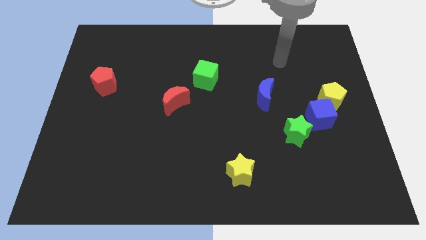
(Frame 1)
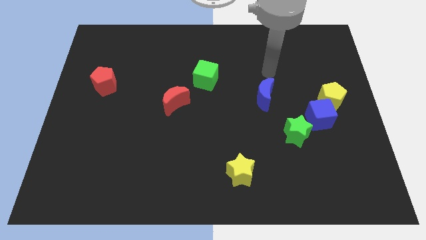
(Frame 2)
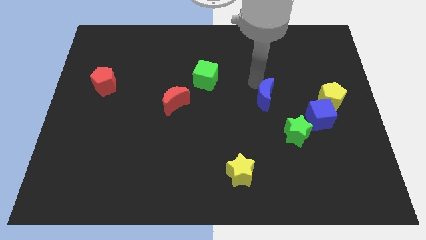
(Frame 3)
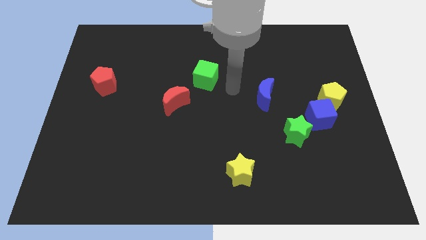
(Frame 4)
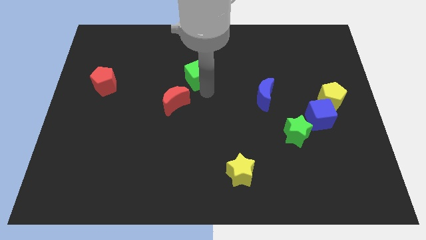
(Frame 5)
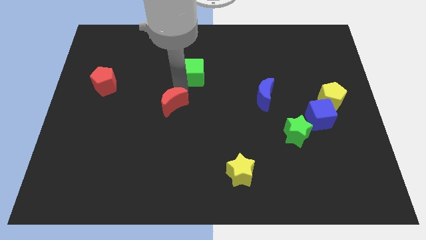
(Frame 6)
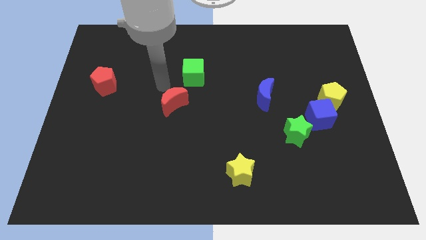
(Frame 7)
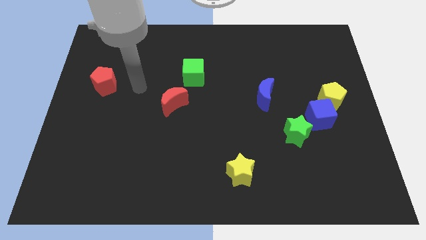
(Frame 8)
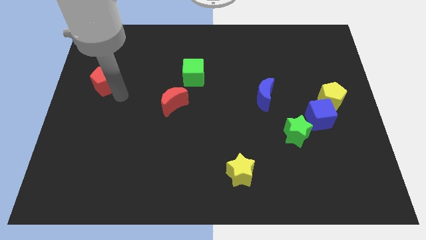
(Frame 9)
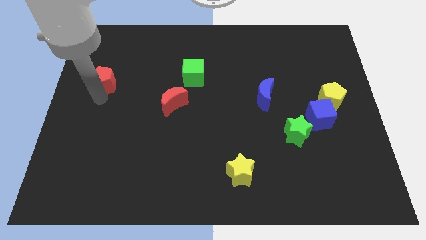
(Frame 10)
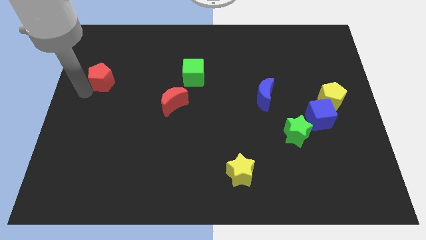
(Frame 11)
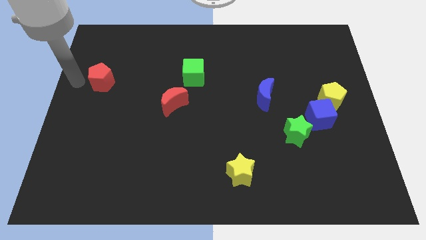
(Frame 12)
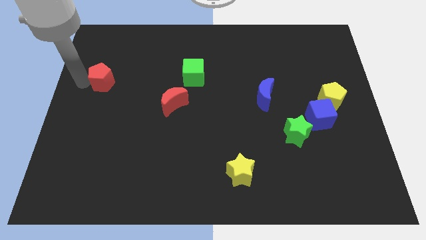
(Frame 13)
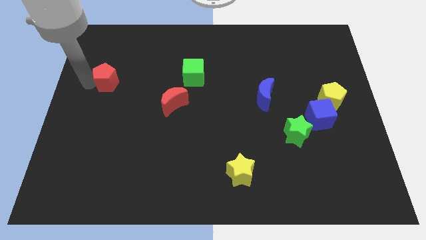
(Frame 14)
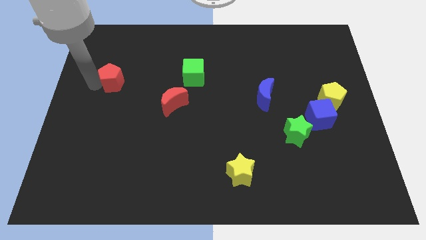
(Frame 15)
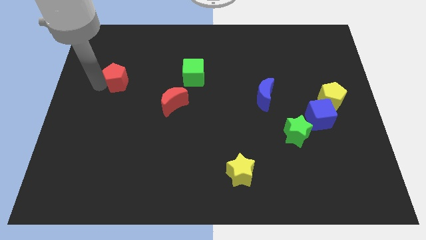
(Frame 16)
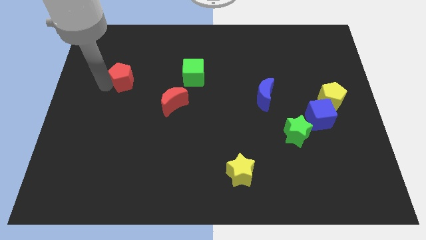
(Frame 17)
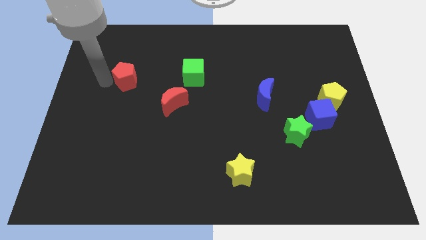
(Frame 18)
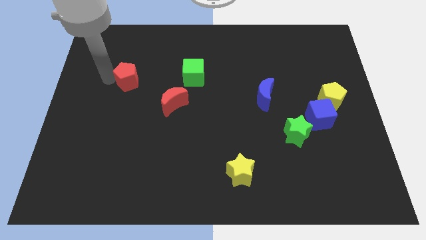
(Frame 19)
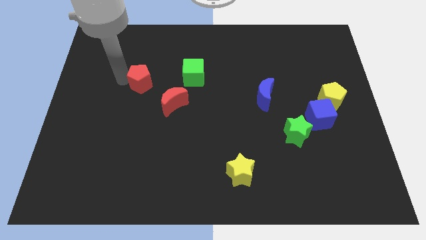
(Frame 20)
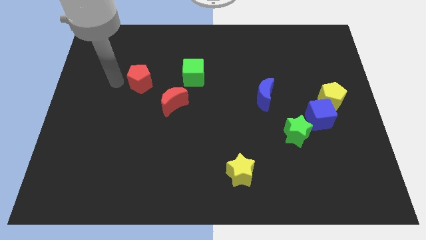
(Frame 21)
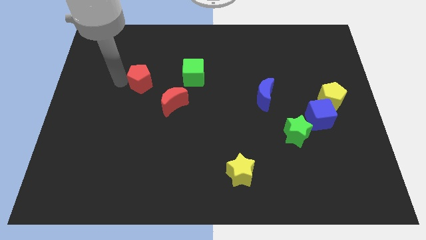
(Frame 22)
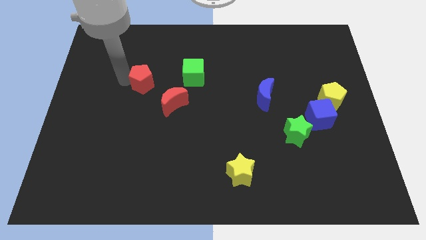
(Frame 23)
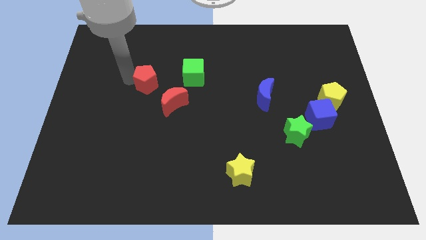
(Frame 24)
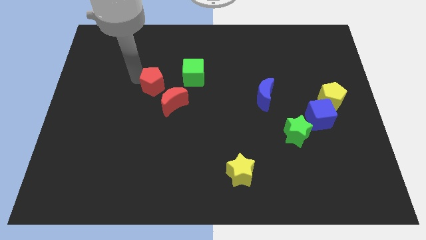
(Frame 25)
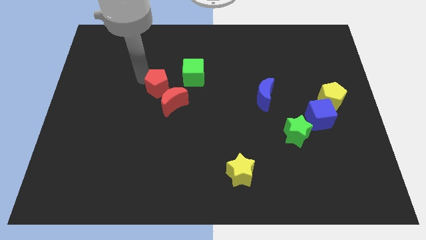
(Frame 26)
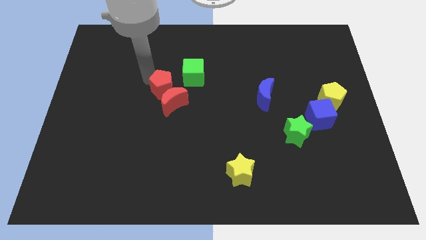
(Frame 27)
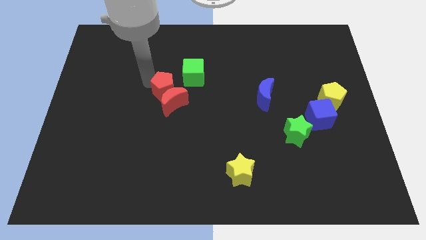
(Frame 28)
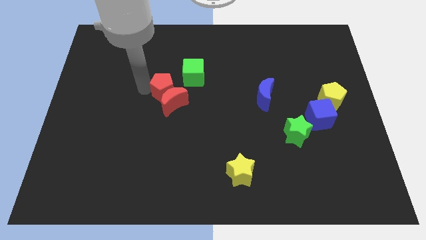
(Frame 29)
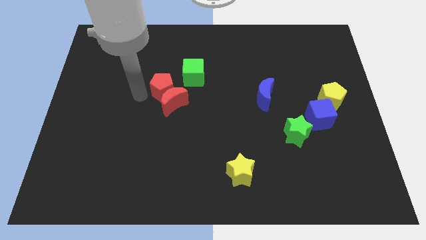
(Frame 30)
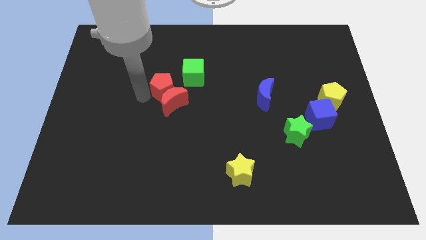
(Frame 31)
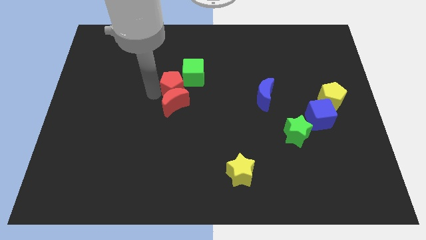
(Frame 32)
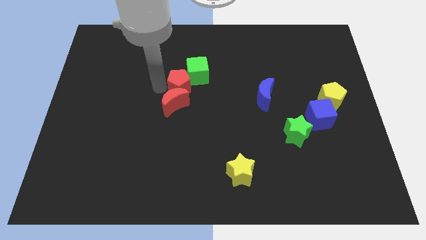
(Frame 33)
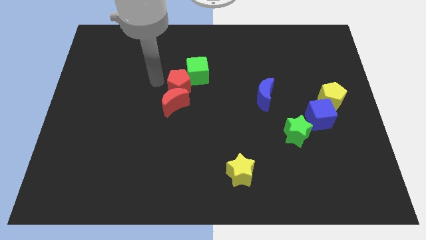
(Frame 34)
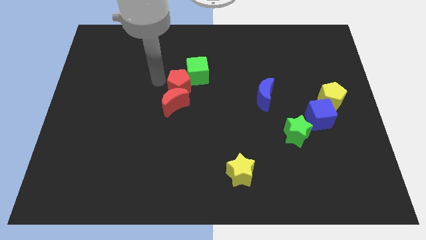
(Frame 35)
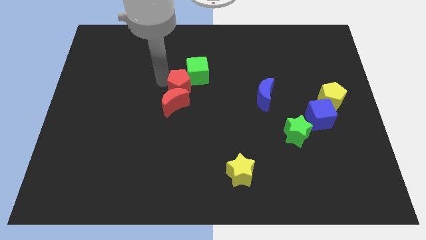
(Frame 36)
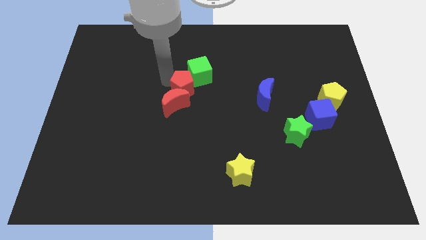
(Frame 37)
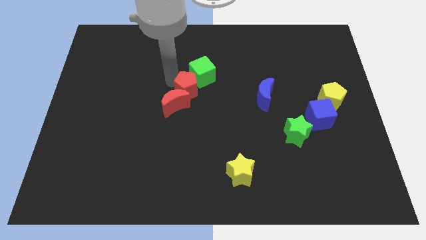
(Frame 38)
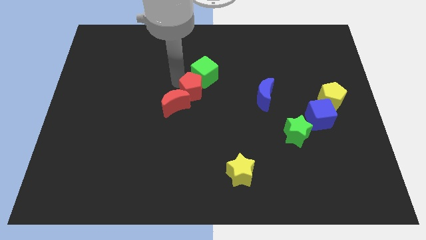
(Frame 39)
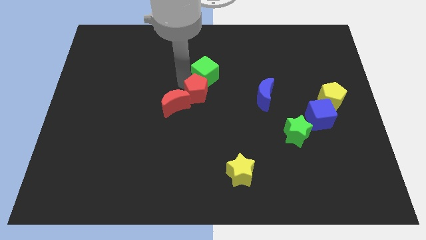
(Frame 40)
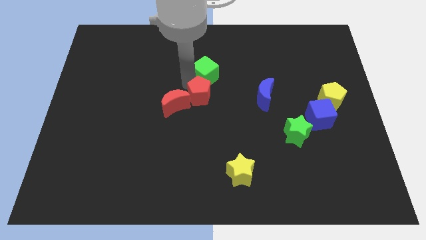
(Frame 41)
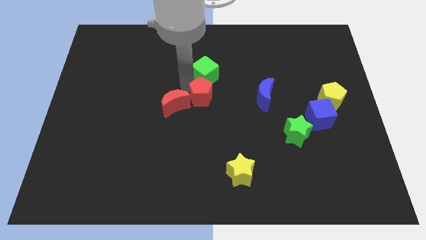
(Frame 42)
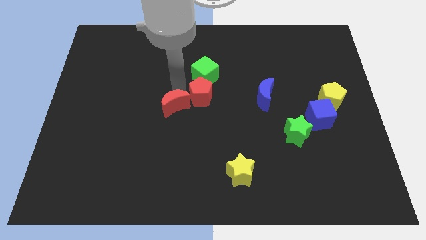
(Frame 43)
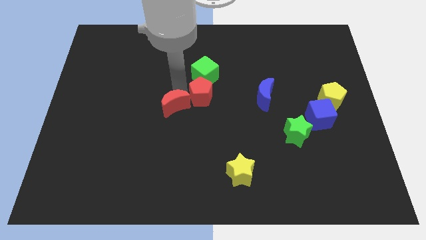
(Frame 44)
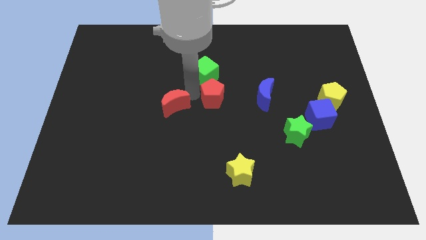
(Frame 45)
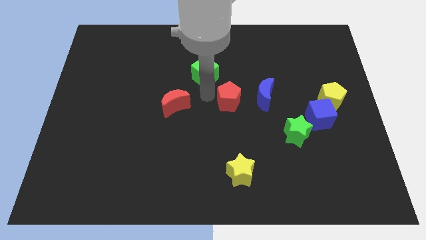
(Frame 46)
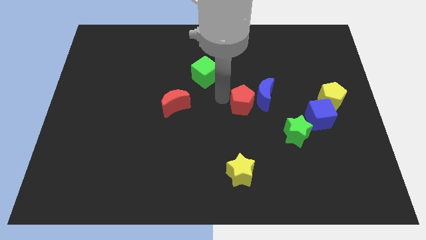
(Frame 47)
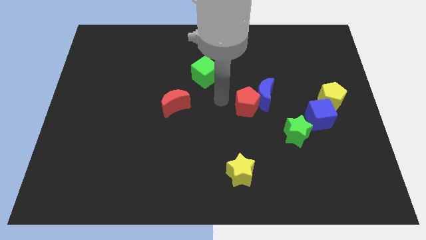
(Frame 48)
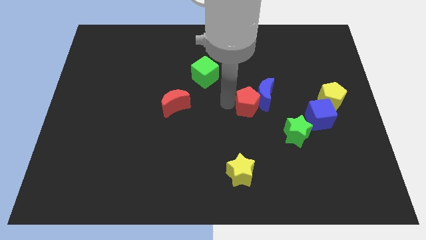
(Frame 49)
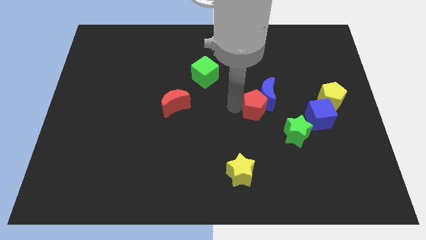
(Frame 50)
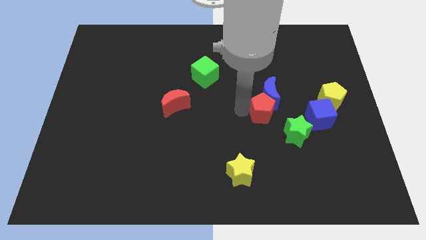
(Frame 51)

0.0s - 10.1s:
push the red pentagon diagonally down and to the right of the blue moon

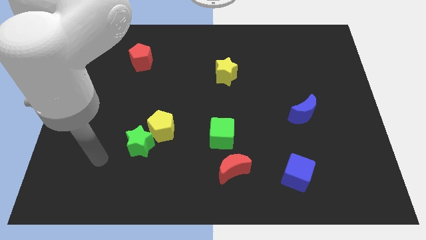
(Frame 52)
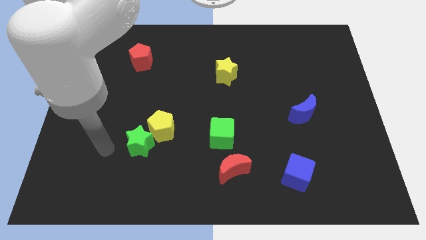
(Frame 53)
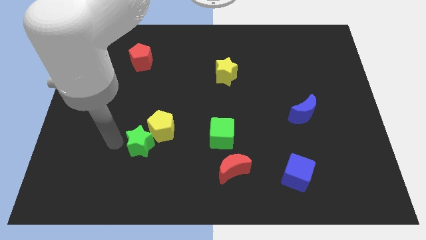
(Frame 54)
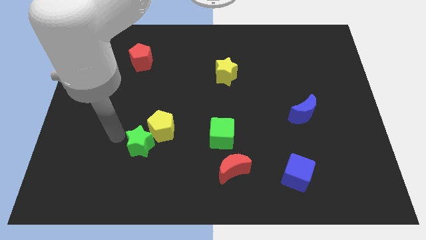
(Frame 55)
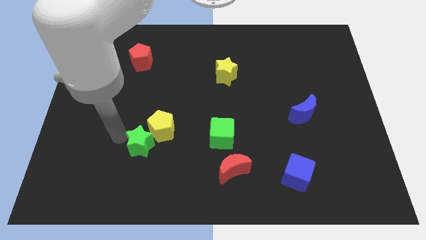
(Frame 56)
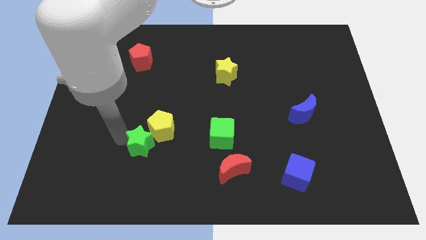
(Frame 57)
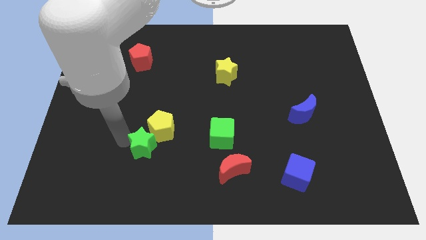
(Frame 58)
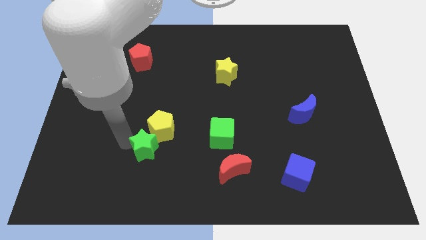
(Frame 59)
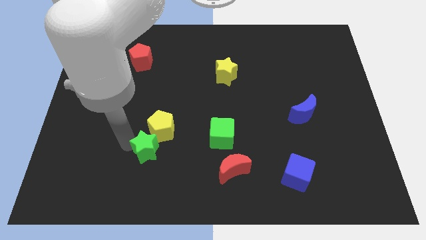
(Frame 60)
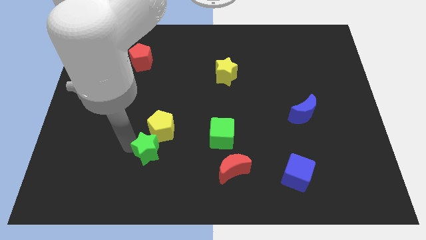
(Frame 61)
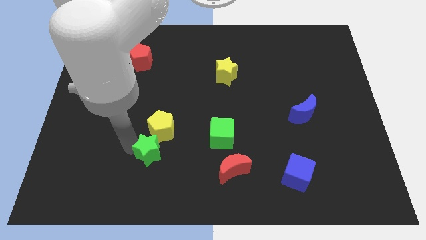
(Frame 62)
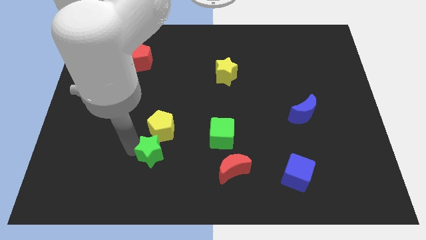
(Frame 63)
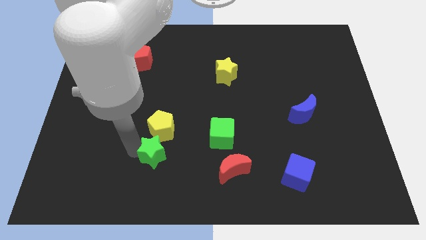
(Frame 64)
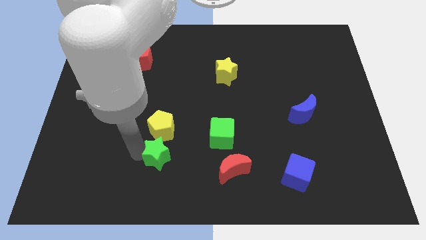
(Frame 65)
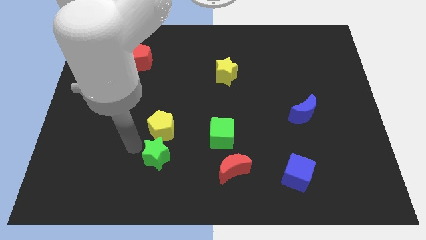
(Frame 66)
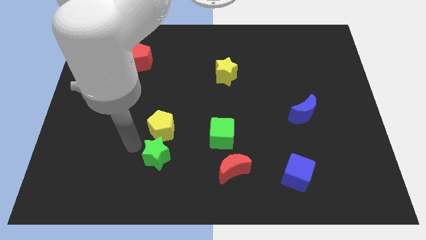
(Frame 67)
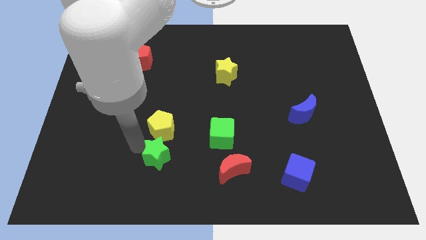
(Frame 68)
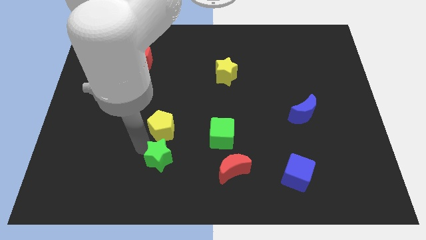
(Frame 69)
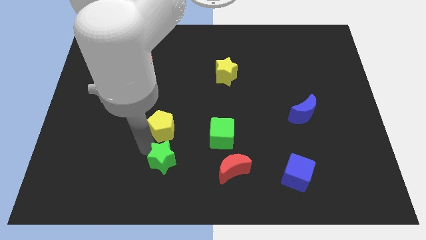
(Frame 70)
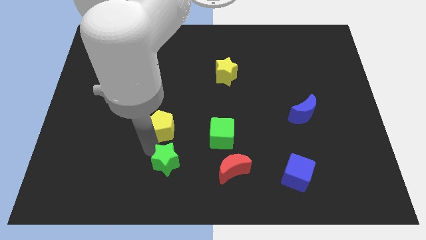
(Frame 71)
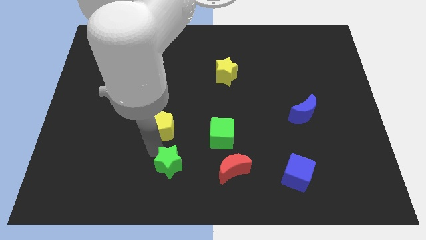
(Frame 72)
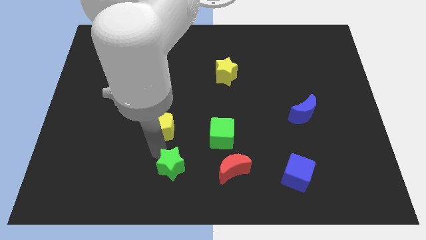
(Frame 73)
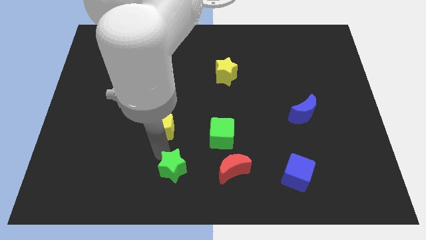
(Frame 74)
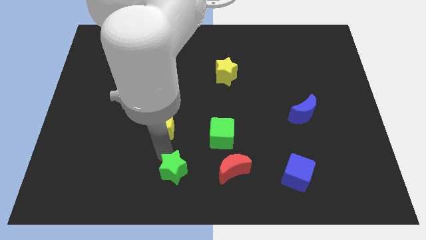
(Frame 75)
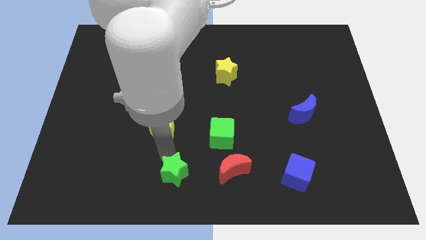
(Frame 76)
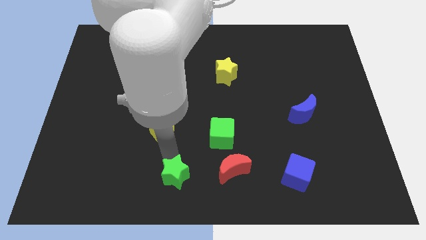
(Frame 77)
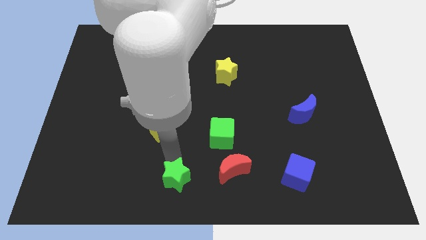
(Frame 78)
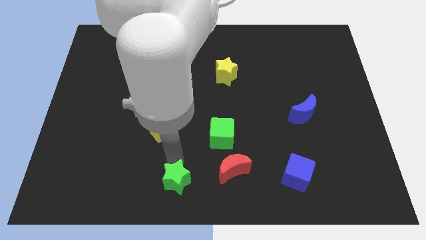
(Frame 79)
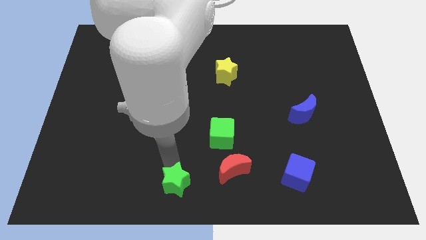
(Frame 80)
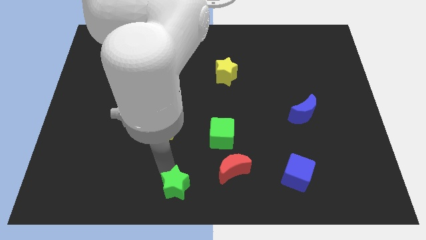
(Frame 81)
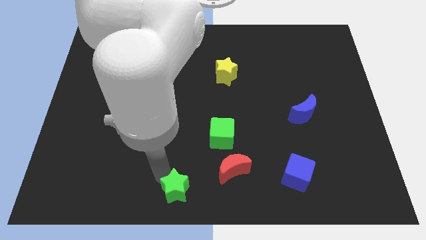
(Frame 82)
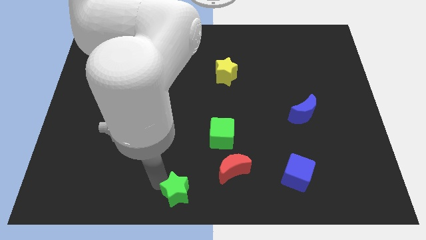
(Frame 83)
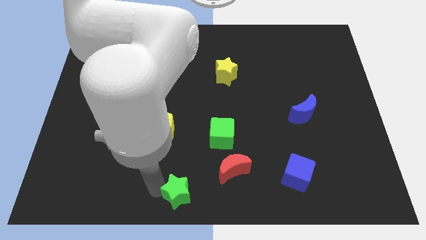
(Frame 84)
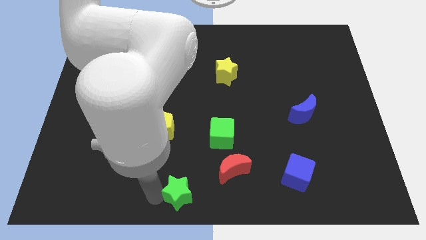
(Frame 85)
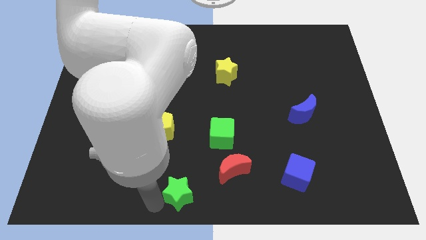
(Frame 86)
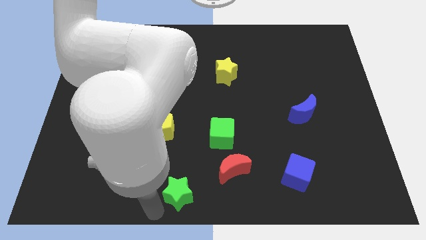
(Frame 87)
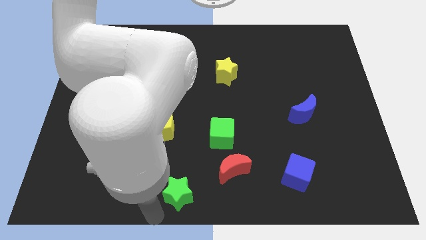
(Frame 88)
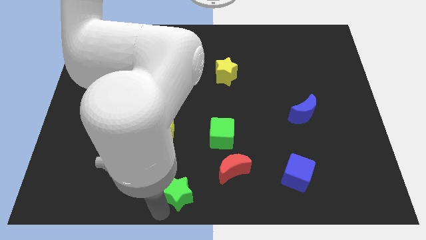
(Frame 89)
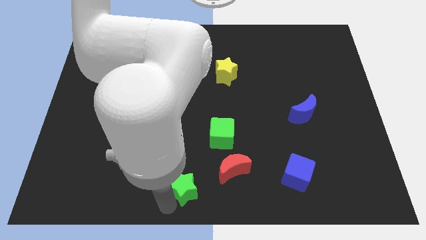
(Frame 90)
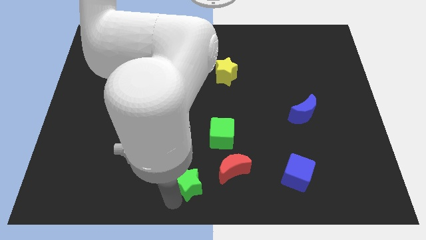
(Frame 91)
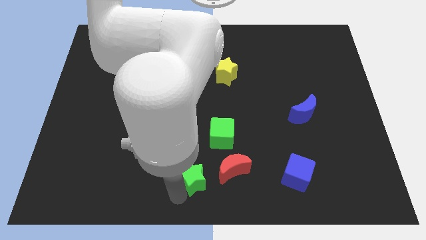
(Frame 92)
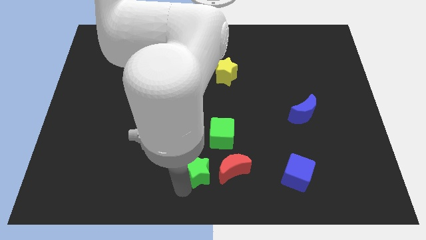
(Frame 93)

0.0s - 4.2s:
push the green star below the green cube
